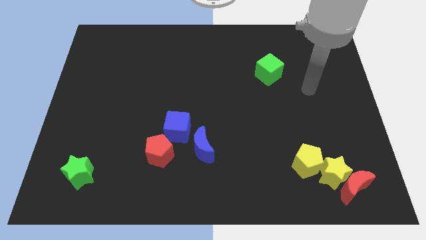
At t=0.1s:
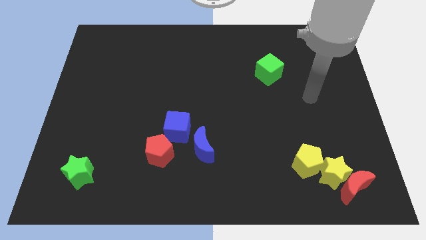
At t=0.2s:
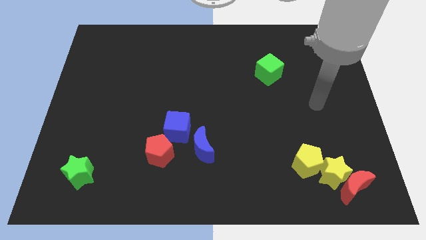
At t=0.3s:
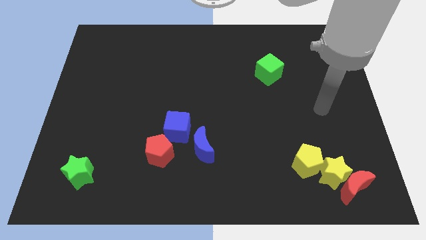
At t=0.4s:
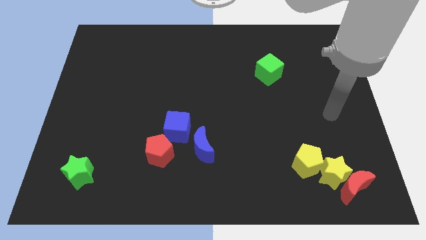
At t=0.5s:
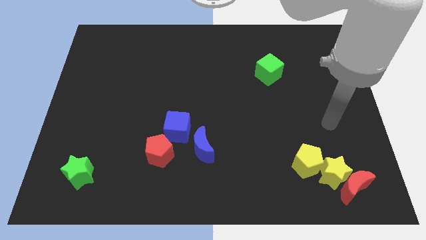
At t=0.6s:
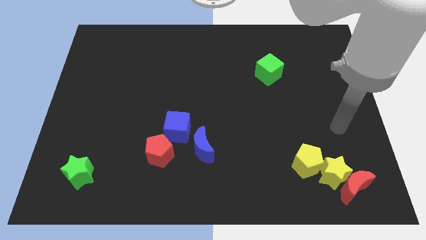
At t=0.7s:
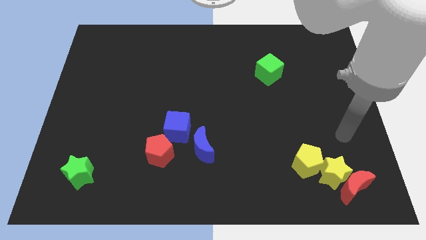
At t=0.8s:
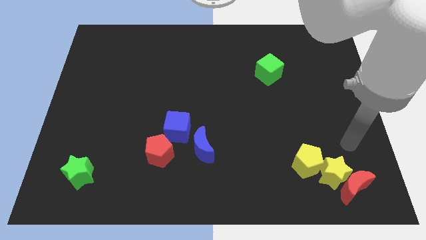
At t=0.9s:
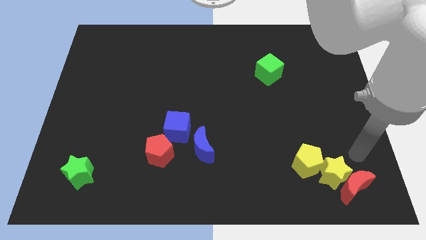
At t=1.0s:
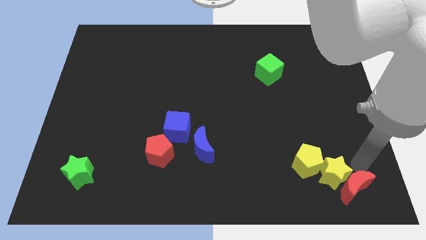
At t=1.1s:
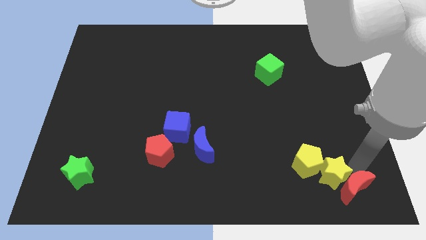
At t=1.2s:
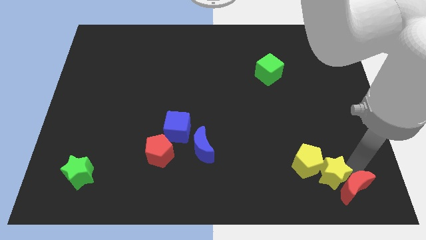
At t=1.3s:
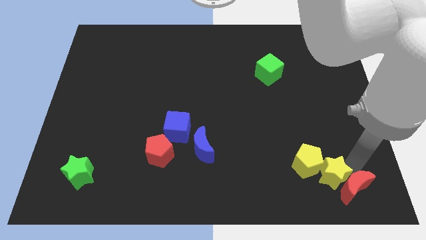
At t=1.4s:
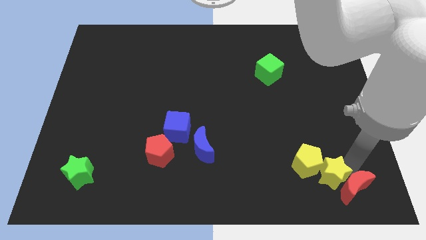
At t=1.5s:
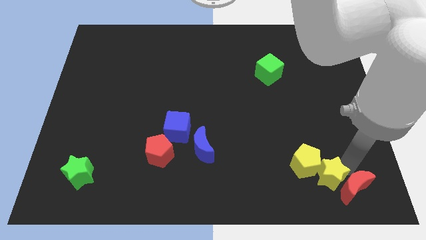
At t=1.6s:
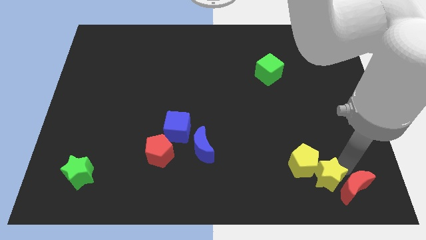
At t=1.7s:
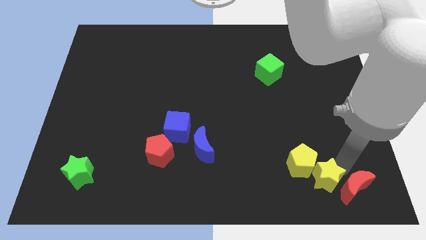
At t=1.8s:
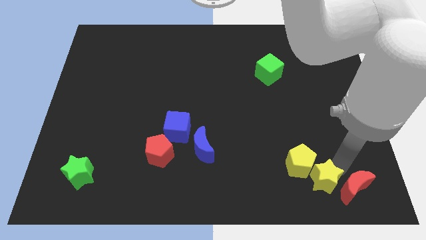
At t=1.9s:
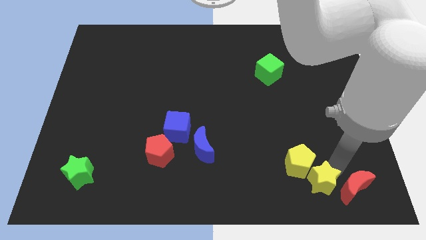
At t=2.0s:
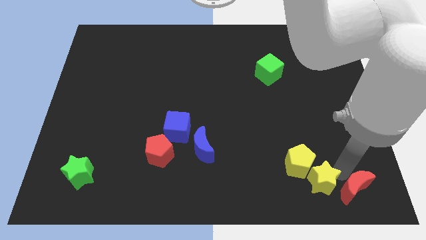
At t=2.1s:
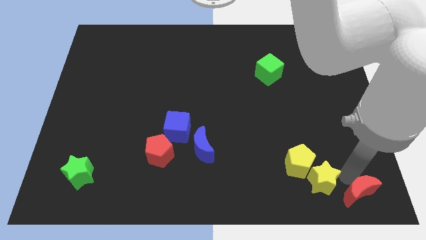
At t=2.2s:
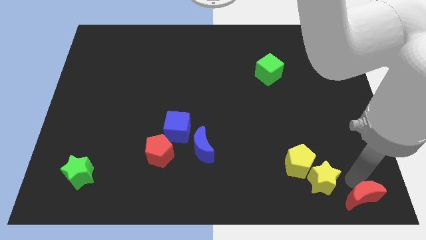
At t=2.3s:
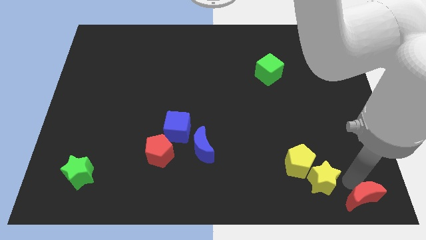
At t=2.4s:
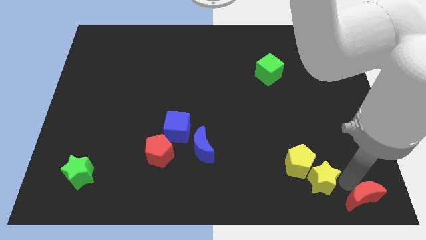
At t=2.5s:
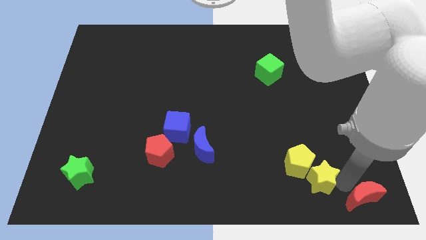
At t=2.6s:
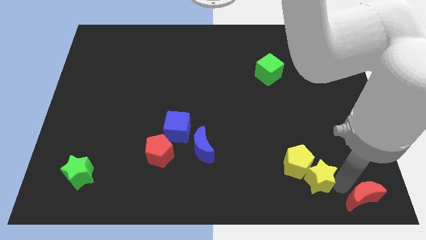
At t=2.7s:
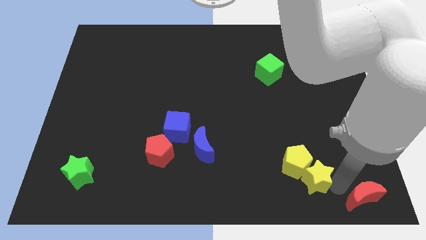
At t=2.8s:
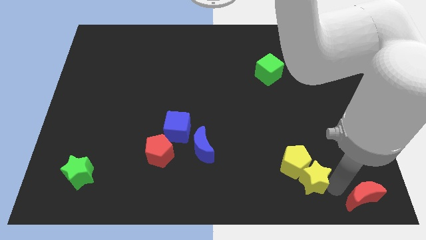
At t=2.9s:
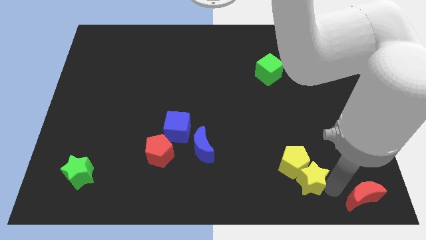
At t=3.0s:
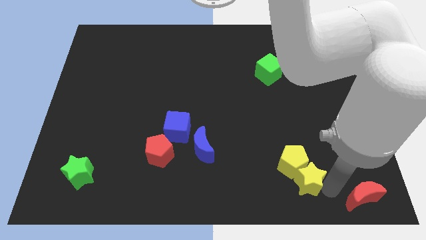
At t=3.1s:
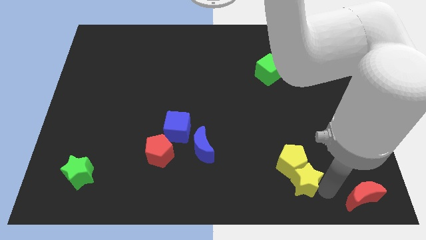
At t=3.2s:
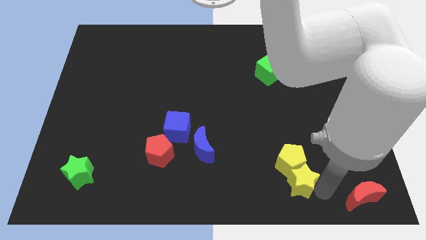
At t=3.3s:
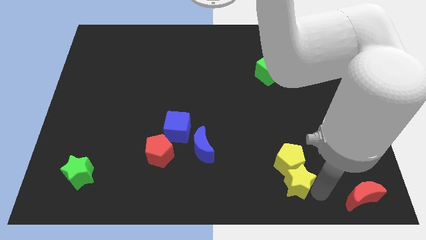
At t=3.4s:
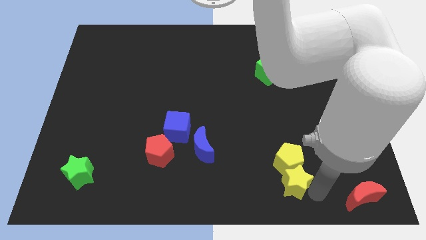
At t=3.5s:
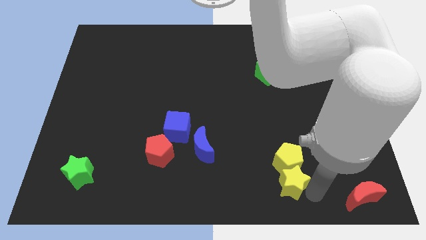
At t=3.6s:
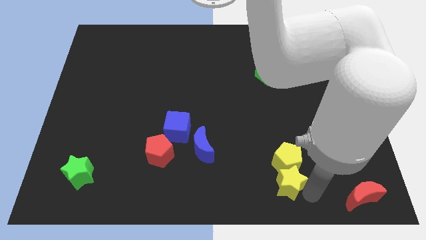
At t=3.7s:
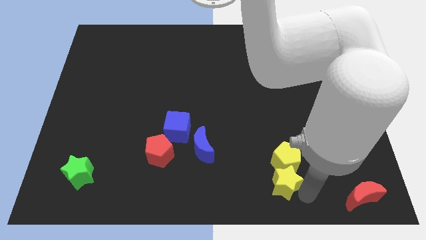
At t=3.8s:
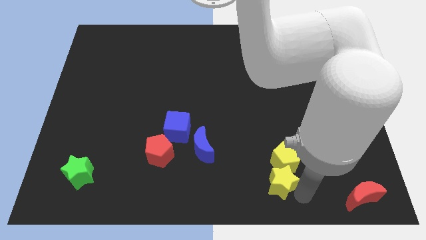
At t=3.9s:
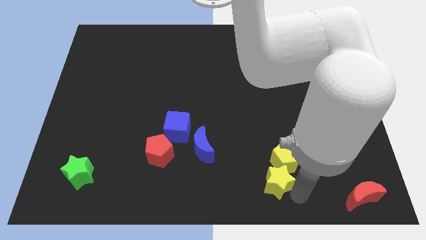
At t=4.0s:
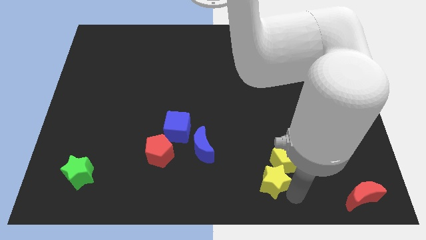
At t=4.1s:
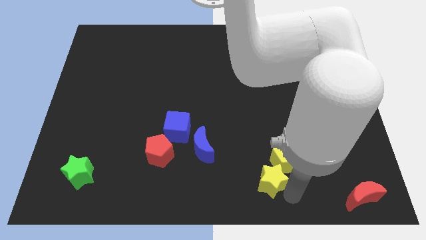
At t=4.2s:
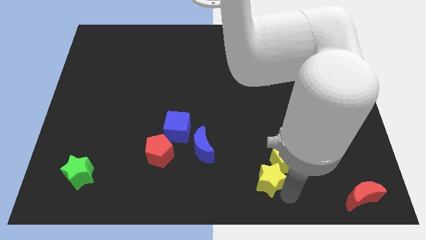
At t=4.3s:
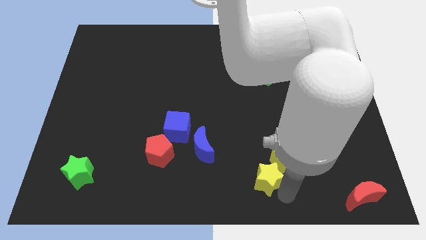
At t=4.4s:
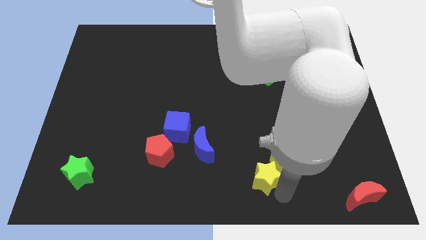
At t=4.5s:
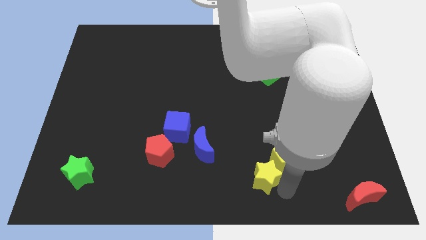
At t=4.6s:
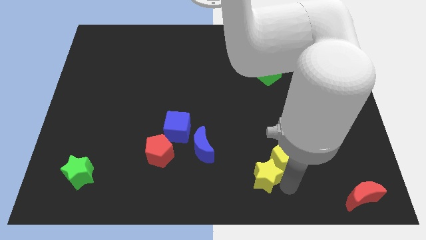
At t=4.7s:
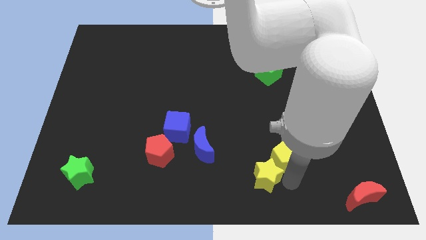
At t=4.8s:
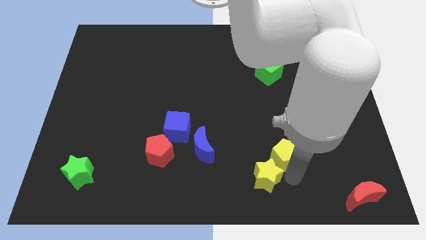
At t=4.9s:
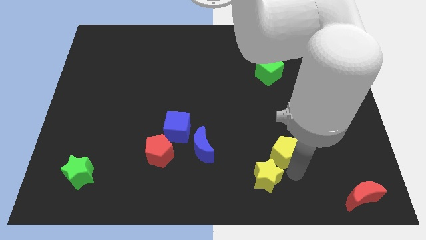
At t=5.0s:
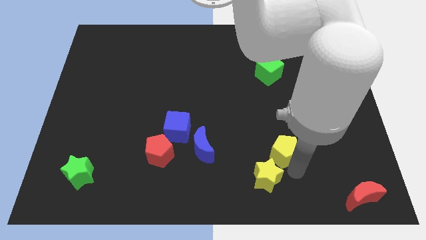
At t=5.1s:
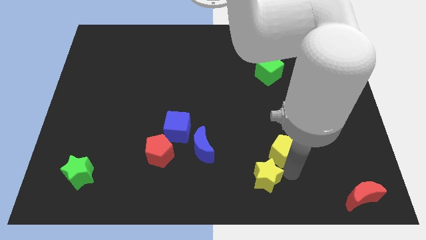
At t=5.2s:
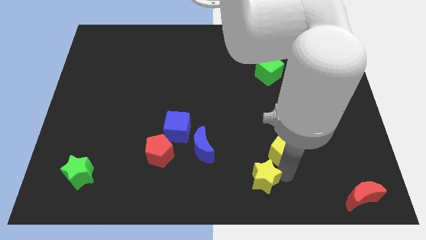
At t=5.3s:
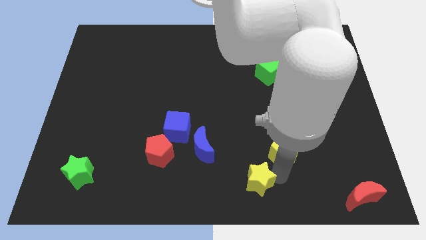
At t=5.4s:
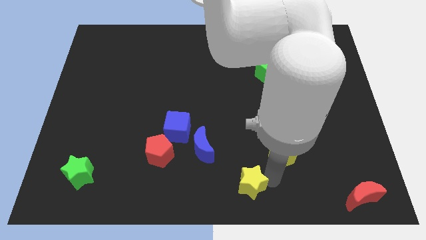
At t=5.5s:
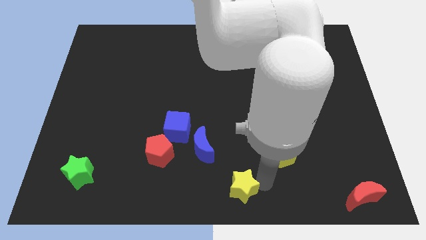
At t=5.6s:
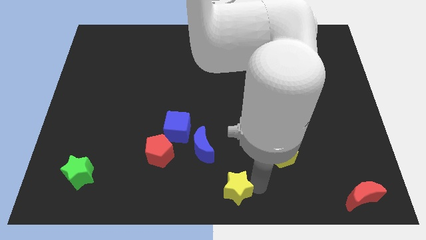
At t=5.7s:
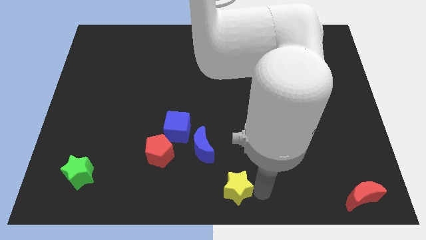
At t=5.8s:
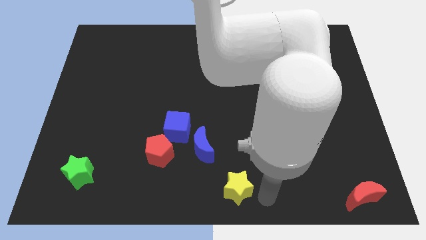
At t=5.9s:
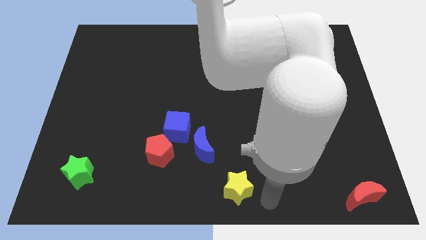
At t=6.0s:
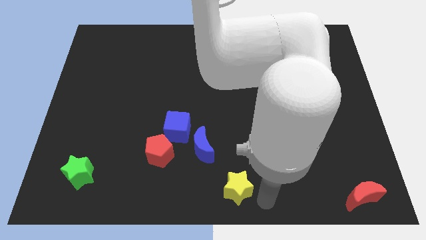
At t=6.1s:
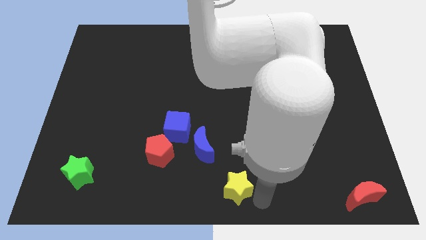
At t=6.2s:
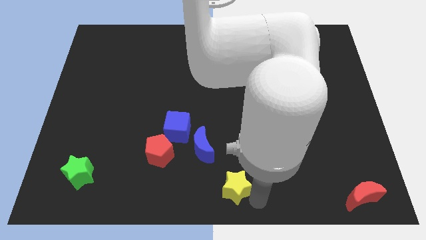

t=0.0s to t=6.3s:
slide the yellow star to the left

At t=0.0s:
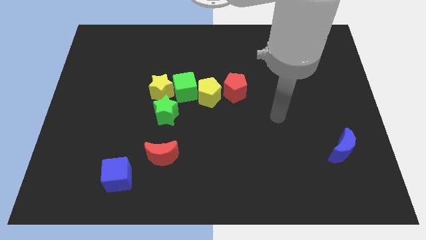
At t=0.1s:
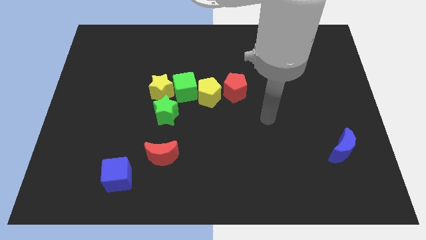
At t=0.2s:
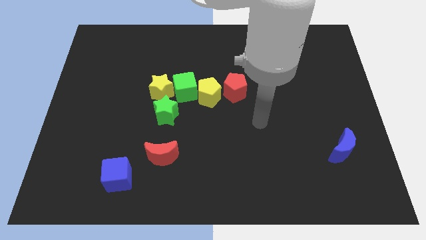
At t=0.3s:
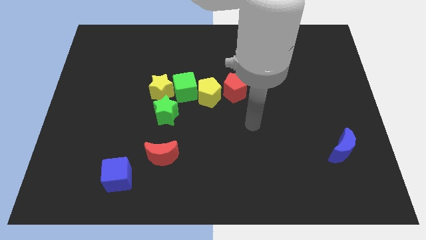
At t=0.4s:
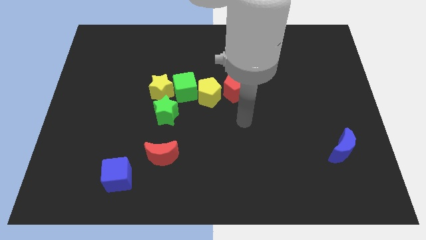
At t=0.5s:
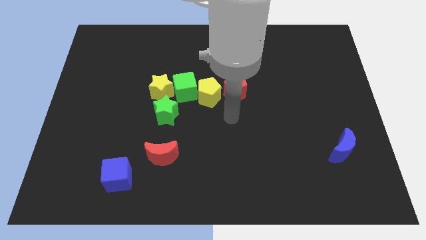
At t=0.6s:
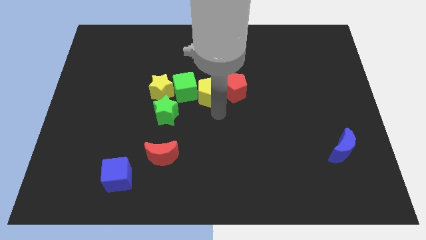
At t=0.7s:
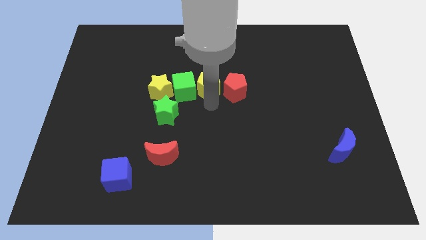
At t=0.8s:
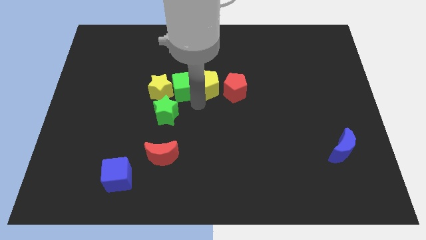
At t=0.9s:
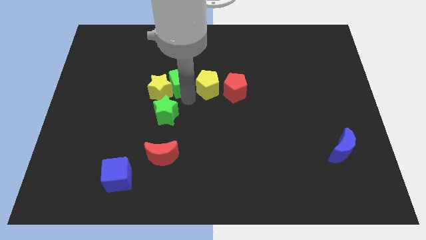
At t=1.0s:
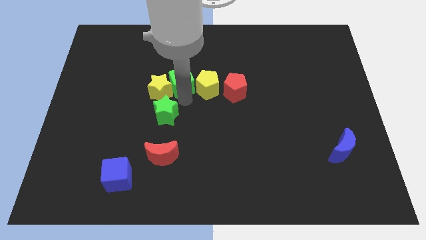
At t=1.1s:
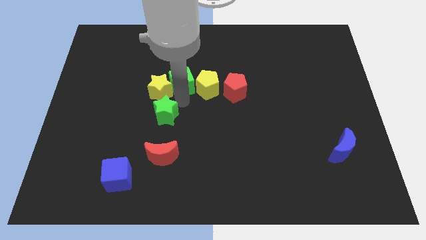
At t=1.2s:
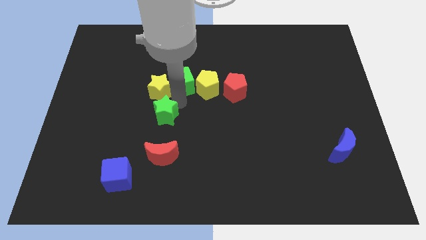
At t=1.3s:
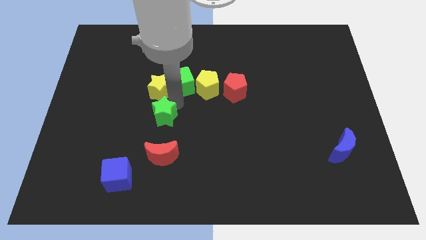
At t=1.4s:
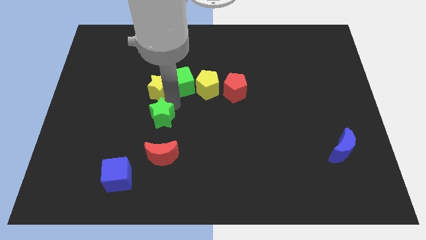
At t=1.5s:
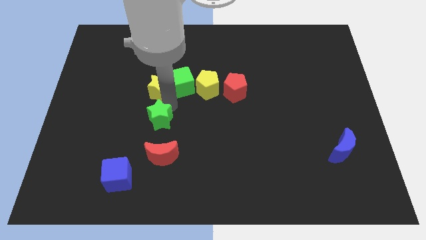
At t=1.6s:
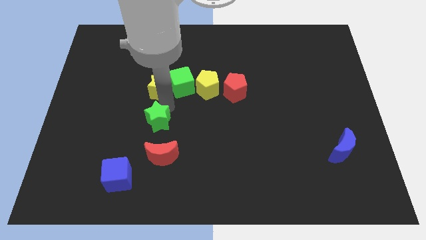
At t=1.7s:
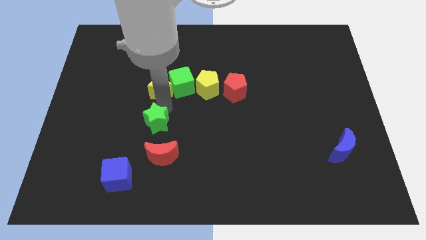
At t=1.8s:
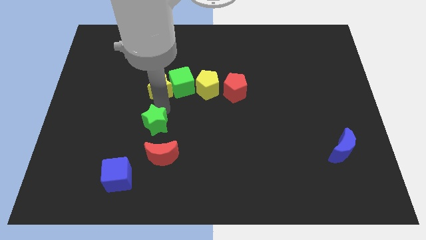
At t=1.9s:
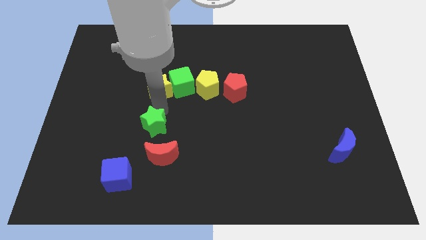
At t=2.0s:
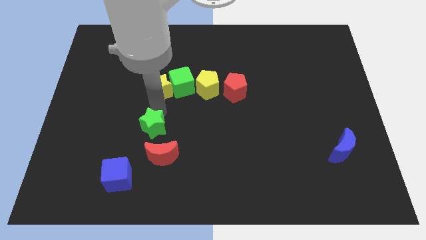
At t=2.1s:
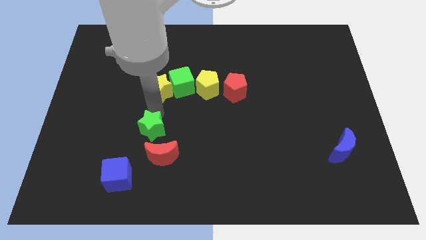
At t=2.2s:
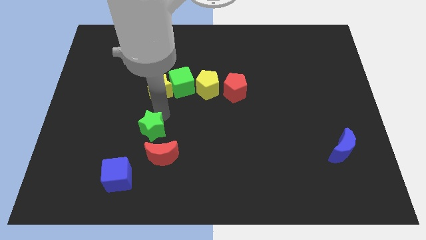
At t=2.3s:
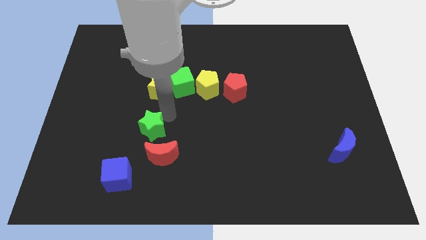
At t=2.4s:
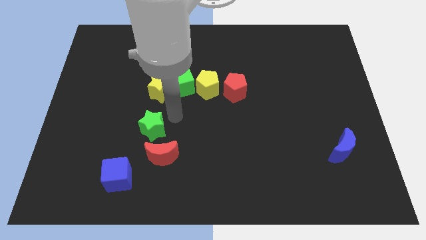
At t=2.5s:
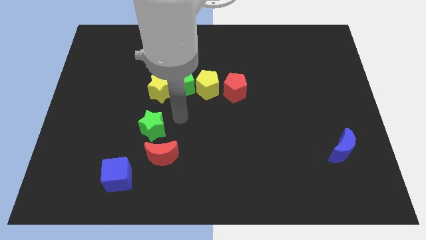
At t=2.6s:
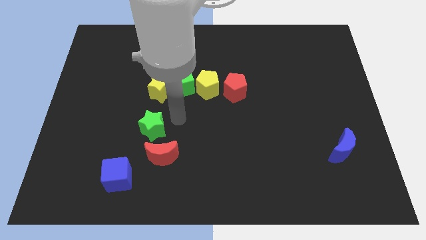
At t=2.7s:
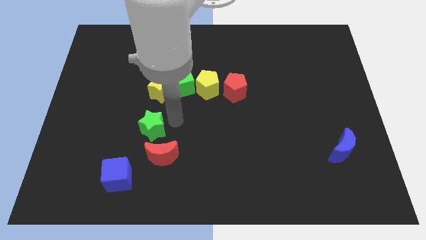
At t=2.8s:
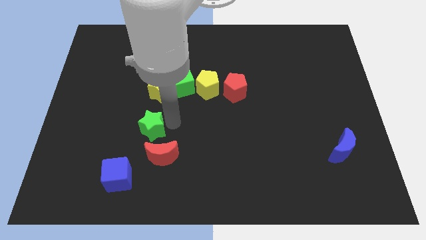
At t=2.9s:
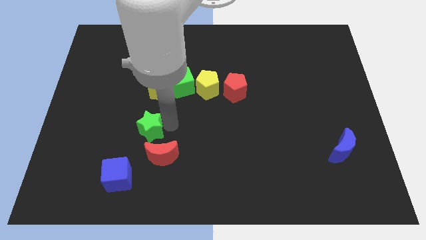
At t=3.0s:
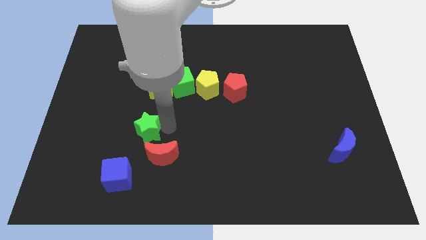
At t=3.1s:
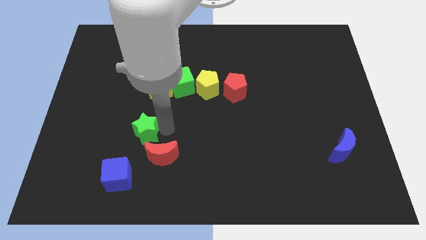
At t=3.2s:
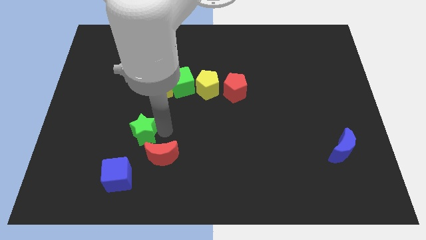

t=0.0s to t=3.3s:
move the green star downwards and then to the left a little
